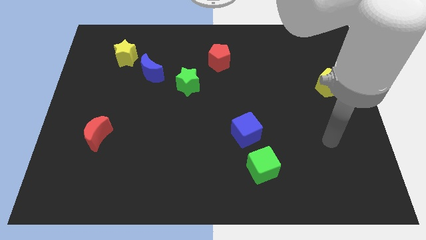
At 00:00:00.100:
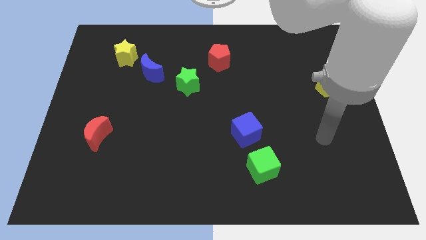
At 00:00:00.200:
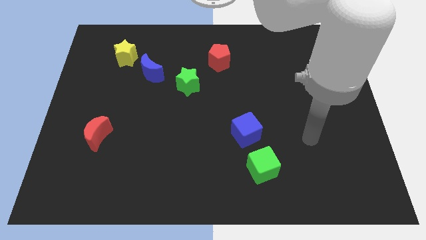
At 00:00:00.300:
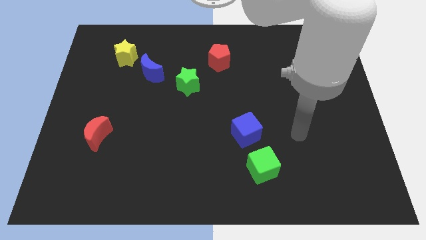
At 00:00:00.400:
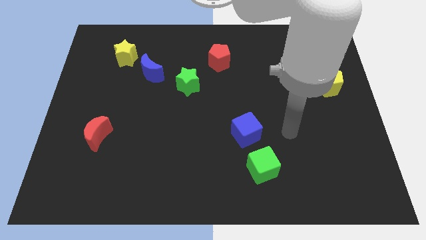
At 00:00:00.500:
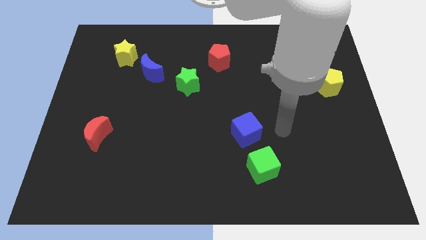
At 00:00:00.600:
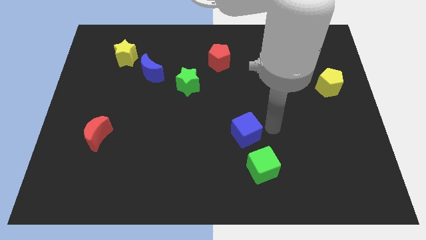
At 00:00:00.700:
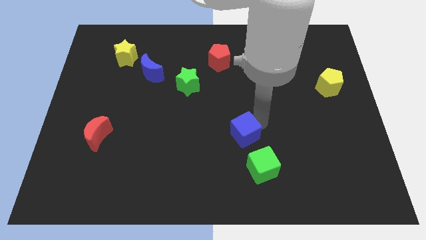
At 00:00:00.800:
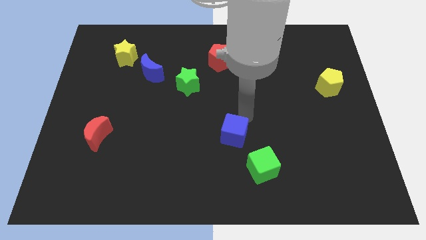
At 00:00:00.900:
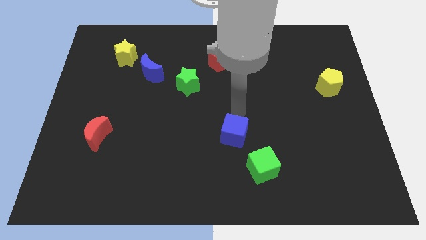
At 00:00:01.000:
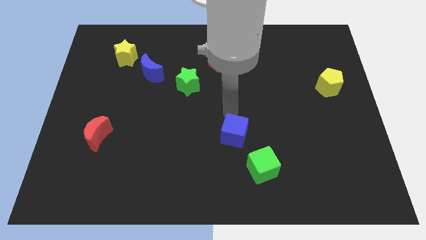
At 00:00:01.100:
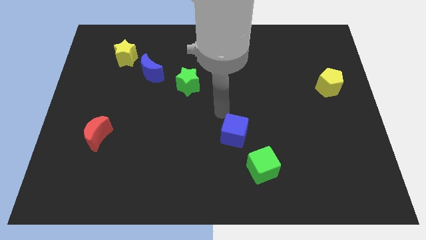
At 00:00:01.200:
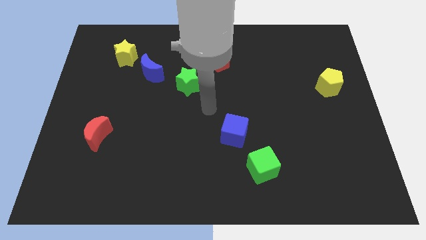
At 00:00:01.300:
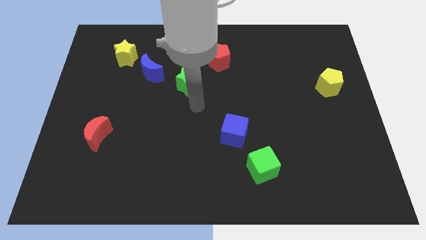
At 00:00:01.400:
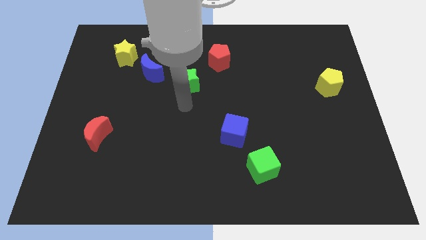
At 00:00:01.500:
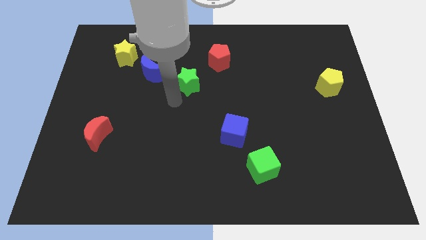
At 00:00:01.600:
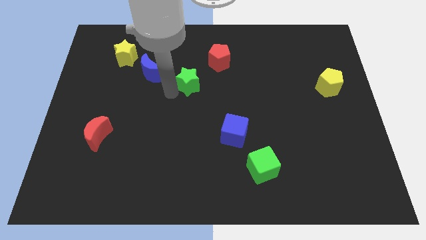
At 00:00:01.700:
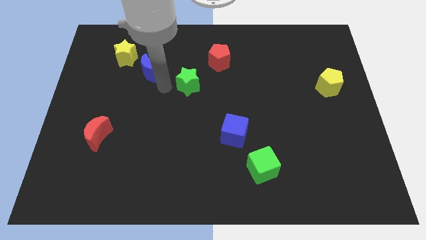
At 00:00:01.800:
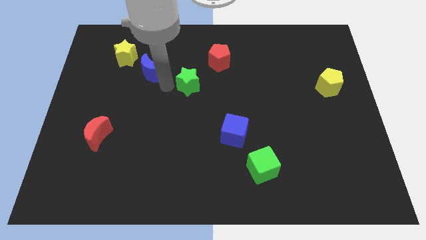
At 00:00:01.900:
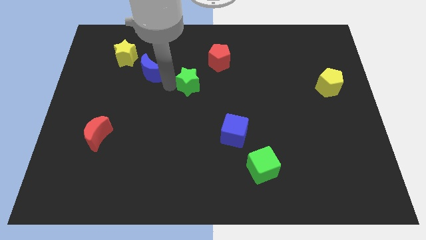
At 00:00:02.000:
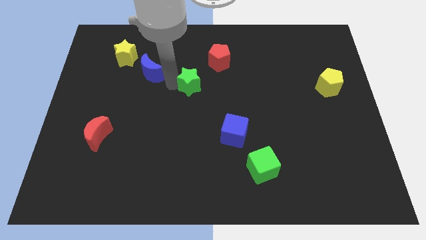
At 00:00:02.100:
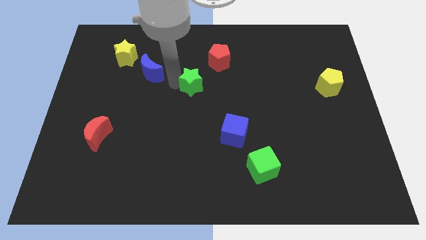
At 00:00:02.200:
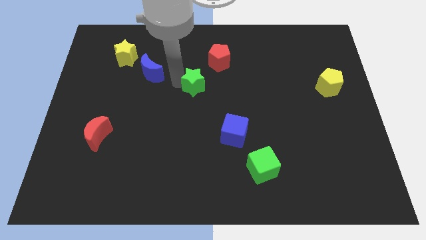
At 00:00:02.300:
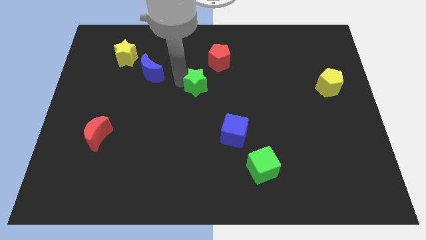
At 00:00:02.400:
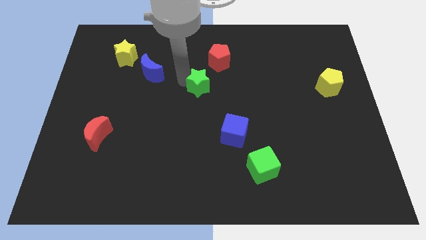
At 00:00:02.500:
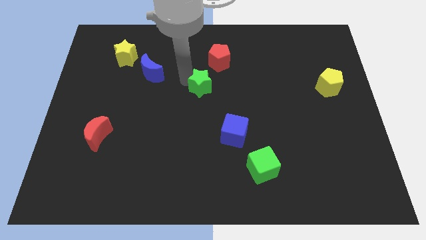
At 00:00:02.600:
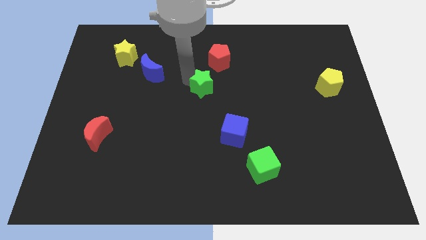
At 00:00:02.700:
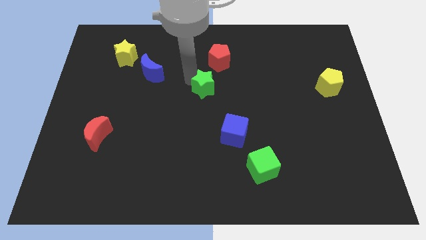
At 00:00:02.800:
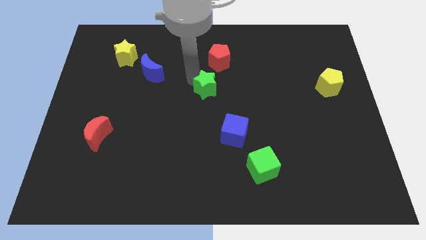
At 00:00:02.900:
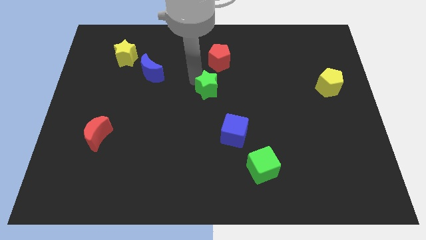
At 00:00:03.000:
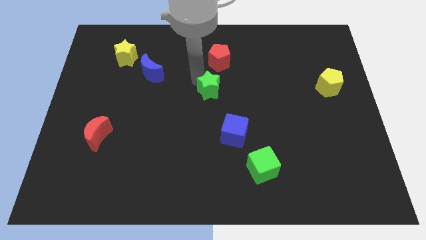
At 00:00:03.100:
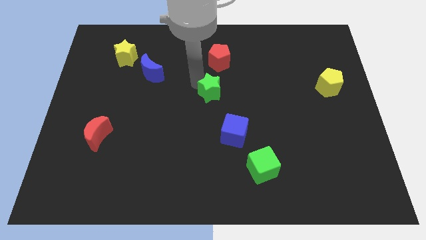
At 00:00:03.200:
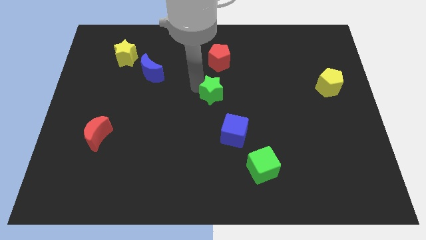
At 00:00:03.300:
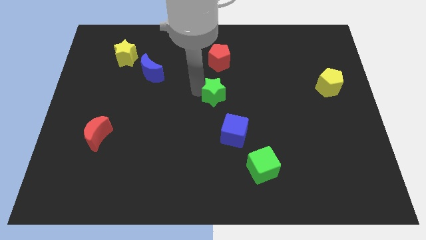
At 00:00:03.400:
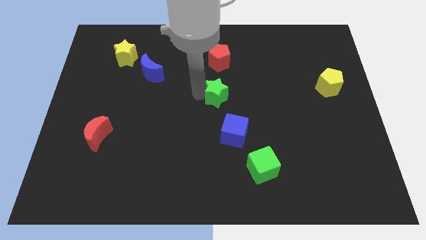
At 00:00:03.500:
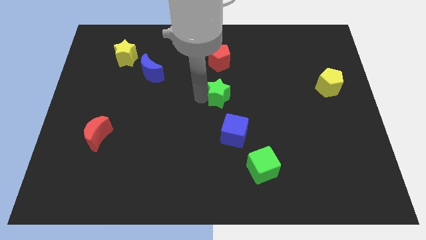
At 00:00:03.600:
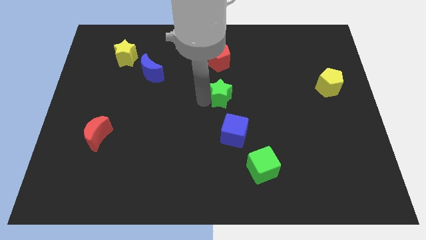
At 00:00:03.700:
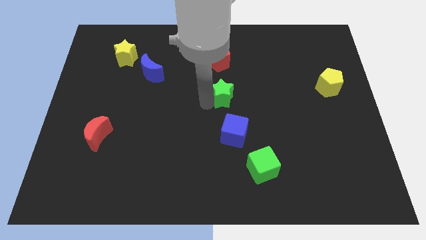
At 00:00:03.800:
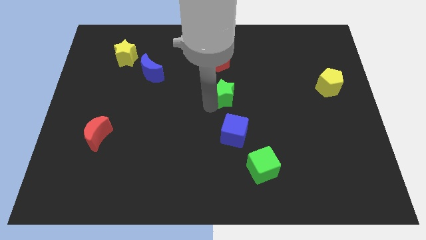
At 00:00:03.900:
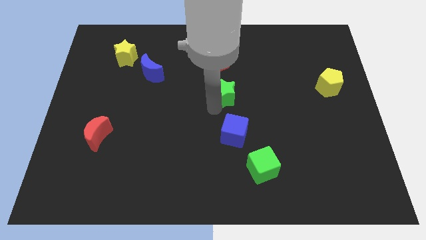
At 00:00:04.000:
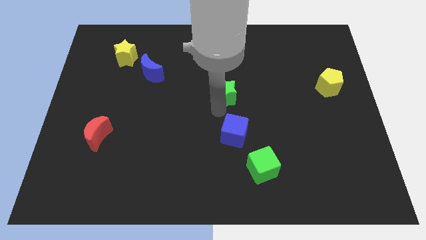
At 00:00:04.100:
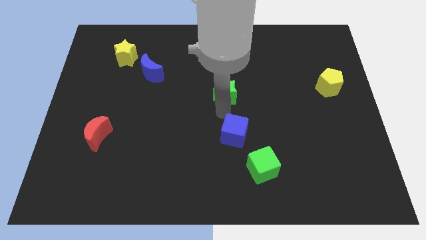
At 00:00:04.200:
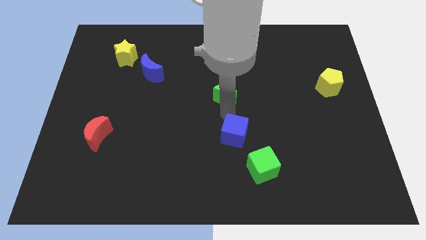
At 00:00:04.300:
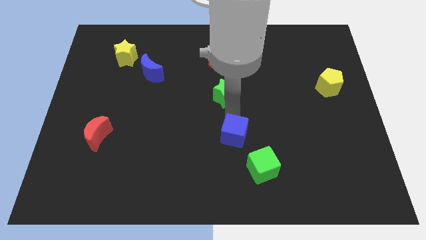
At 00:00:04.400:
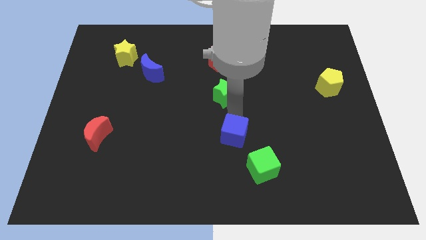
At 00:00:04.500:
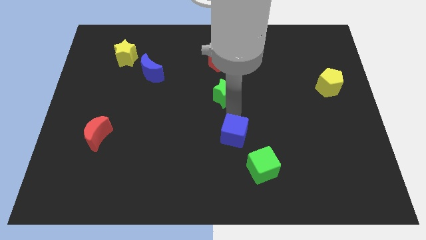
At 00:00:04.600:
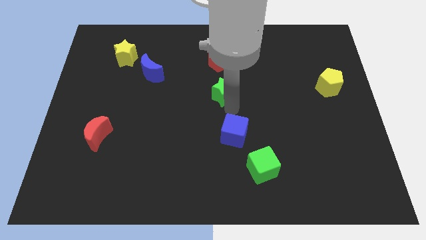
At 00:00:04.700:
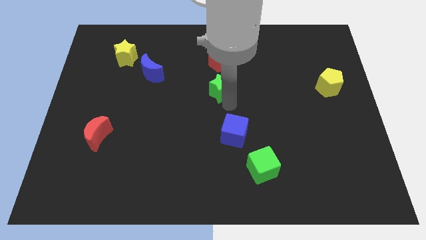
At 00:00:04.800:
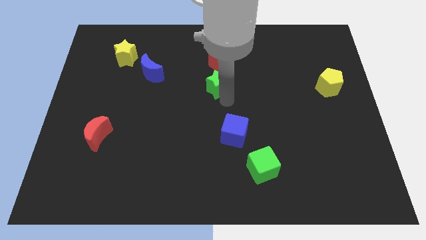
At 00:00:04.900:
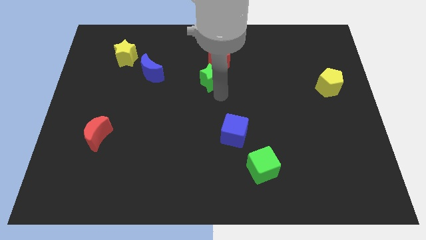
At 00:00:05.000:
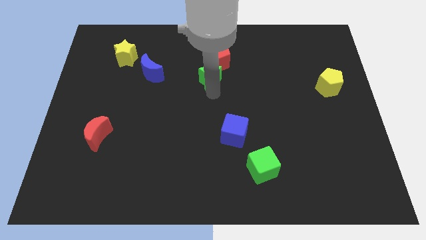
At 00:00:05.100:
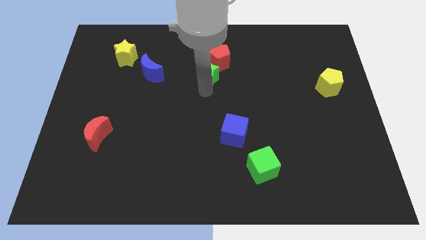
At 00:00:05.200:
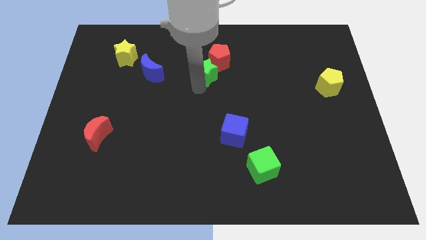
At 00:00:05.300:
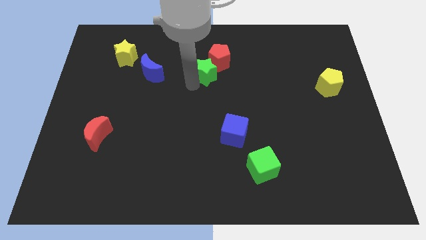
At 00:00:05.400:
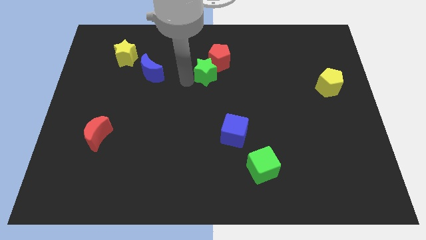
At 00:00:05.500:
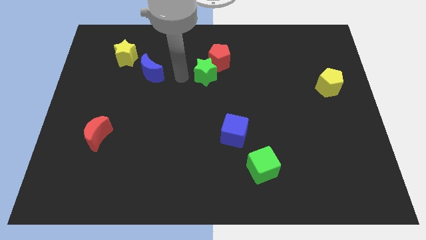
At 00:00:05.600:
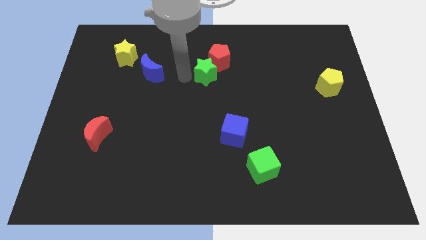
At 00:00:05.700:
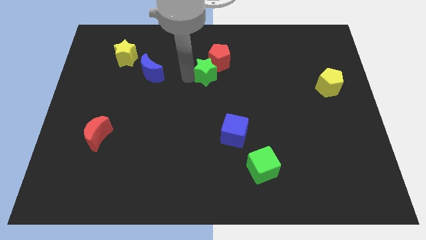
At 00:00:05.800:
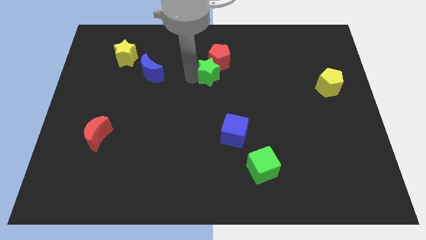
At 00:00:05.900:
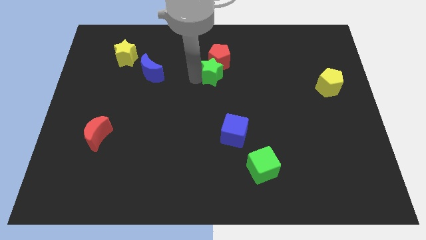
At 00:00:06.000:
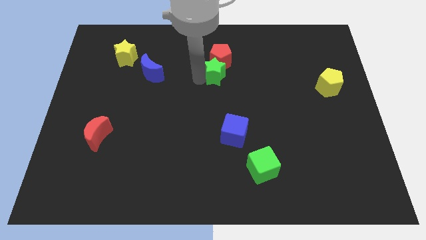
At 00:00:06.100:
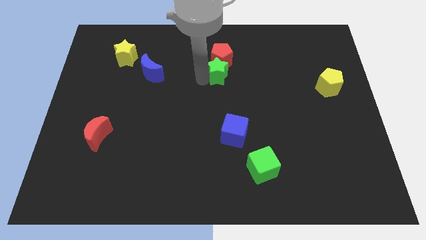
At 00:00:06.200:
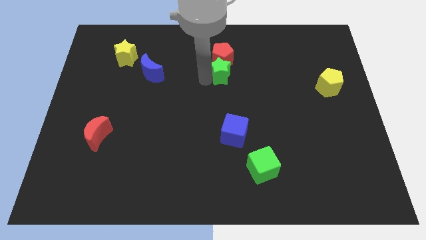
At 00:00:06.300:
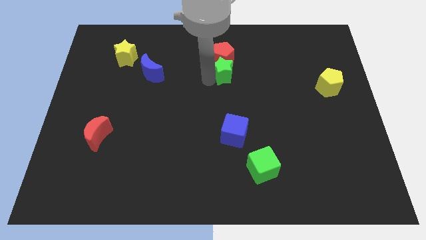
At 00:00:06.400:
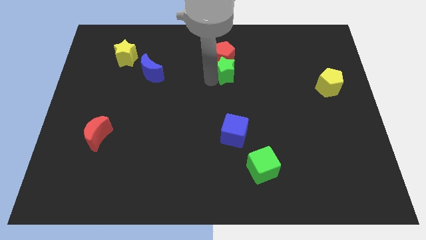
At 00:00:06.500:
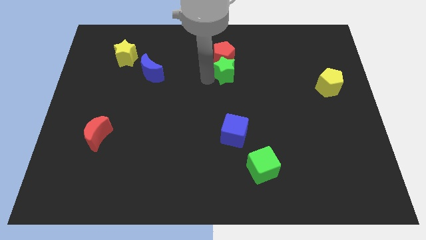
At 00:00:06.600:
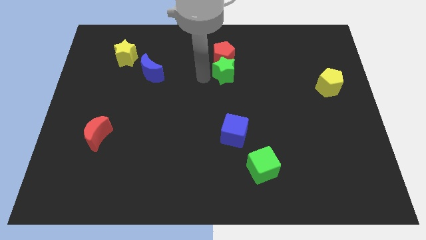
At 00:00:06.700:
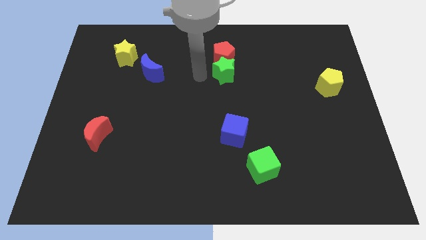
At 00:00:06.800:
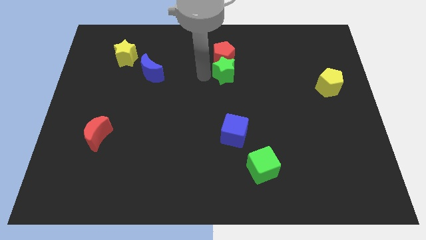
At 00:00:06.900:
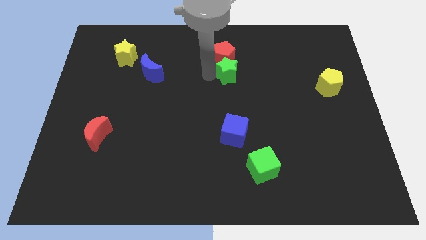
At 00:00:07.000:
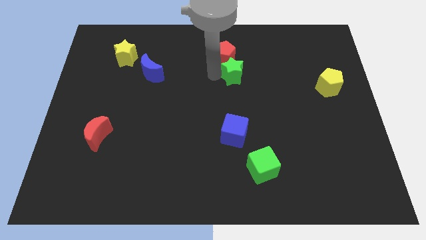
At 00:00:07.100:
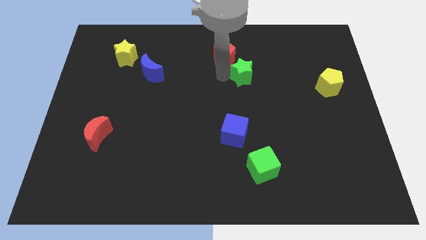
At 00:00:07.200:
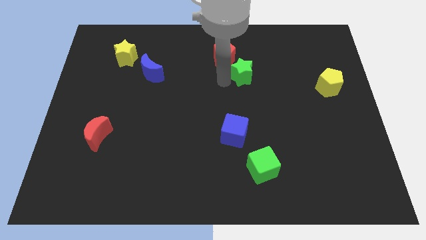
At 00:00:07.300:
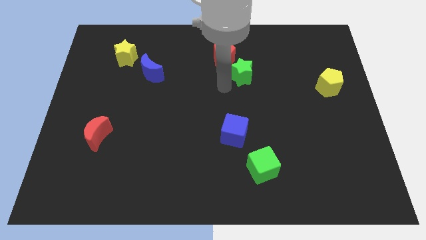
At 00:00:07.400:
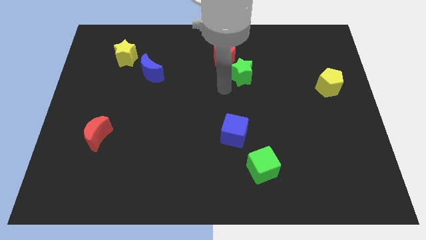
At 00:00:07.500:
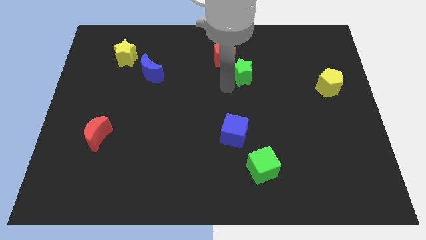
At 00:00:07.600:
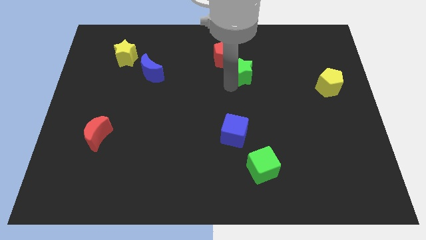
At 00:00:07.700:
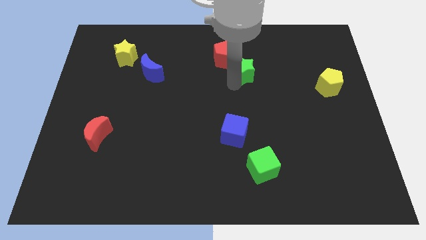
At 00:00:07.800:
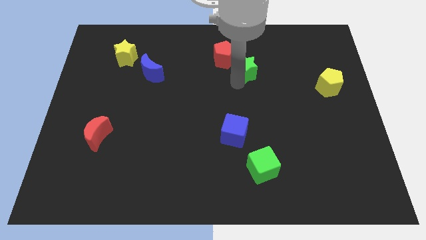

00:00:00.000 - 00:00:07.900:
put the green star right of the red pentagon

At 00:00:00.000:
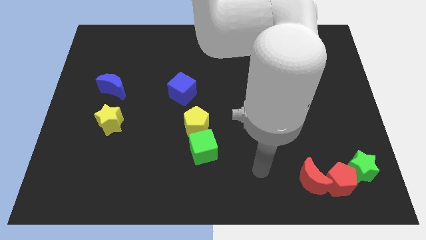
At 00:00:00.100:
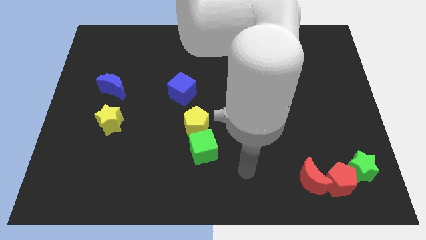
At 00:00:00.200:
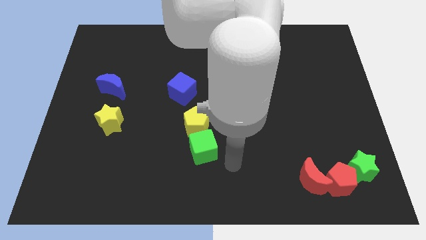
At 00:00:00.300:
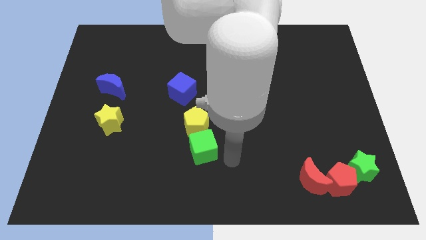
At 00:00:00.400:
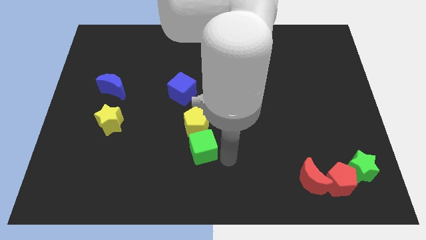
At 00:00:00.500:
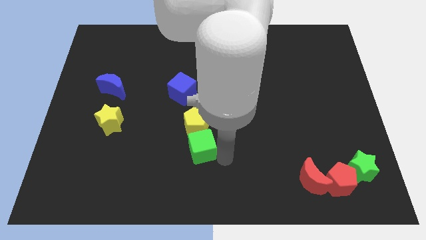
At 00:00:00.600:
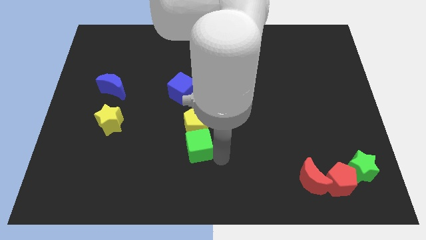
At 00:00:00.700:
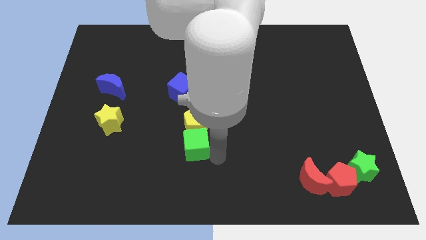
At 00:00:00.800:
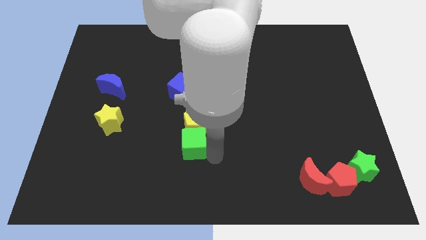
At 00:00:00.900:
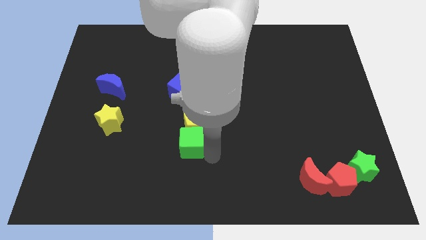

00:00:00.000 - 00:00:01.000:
push the green cube to the bottom side of the blue cube
